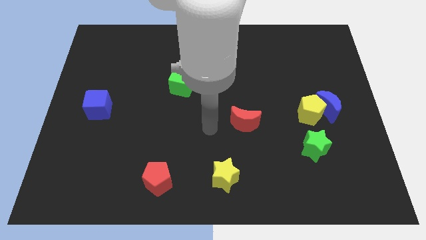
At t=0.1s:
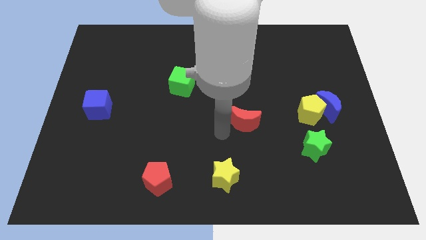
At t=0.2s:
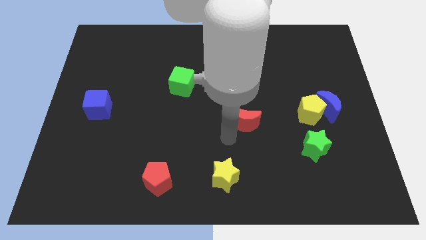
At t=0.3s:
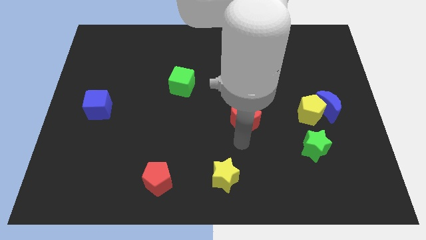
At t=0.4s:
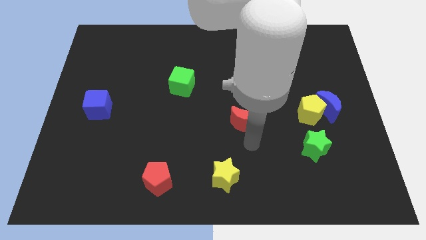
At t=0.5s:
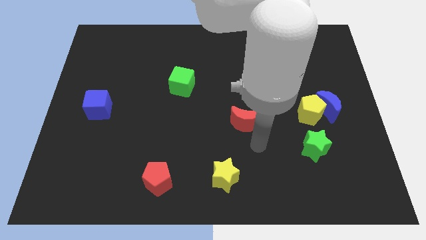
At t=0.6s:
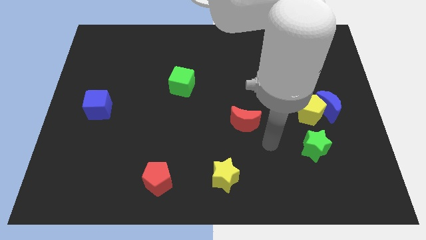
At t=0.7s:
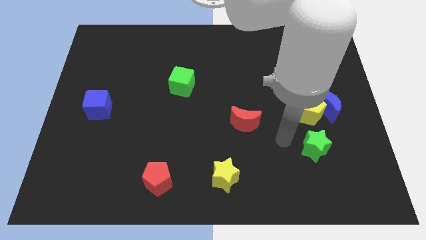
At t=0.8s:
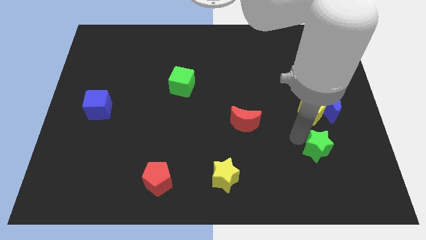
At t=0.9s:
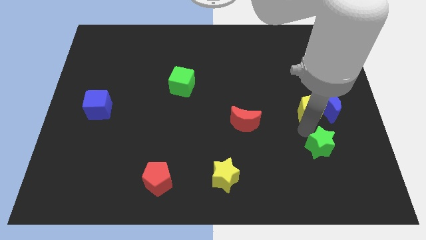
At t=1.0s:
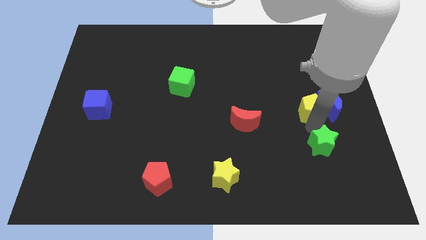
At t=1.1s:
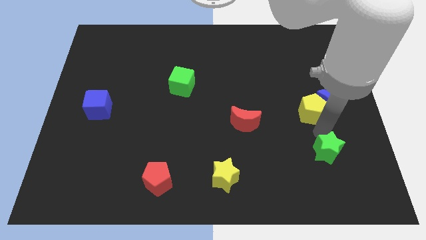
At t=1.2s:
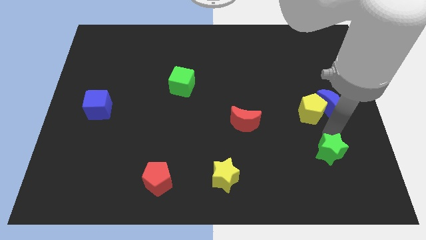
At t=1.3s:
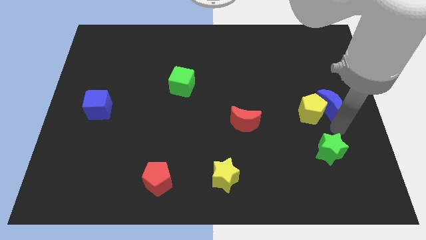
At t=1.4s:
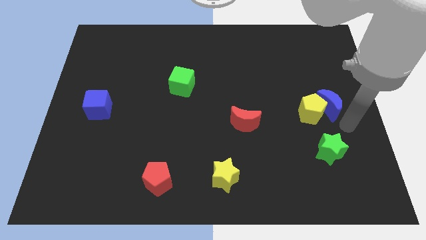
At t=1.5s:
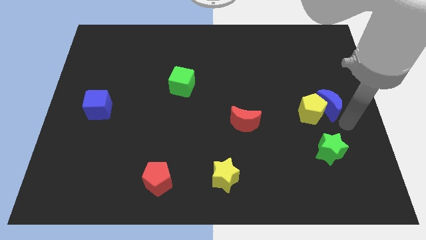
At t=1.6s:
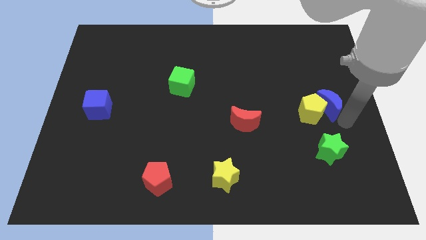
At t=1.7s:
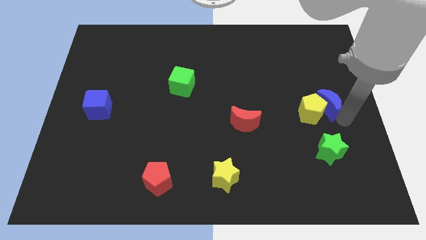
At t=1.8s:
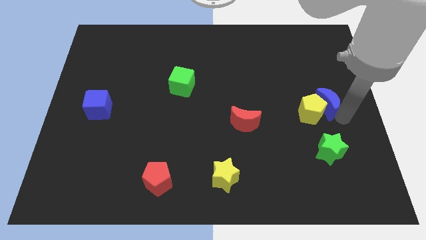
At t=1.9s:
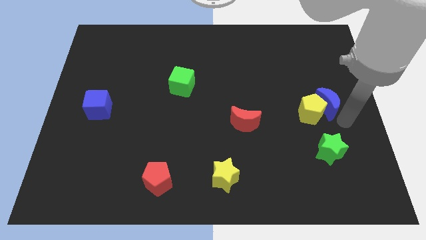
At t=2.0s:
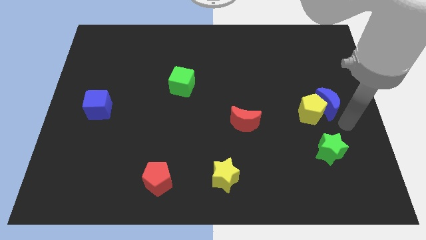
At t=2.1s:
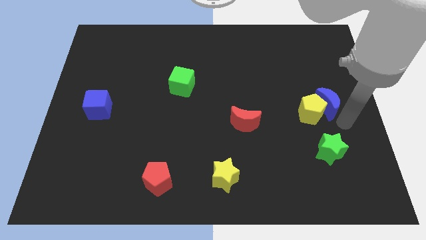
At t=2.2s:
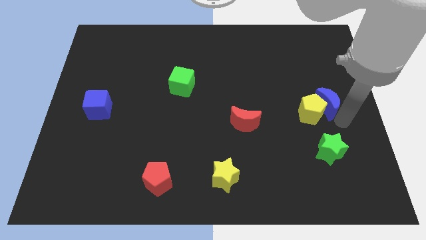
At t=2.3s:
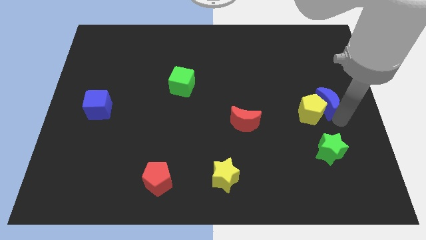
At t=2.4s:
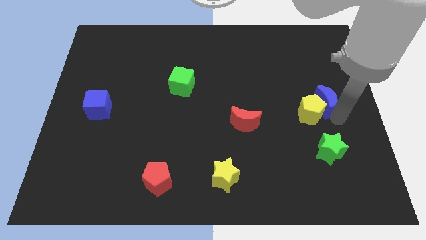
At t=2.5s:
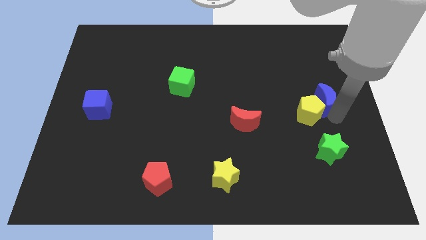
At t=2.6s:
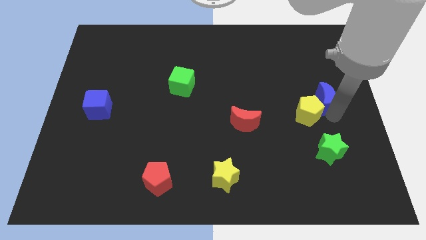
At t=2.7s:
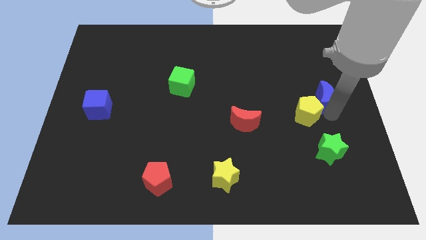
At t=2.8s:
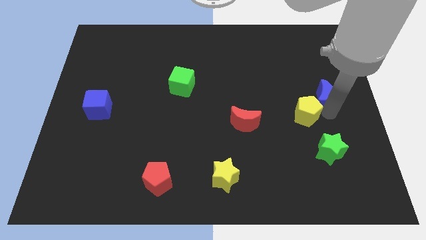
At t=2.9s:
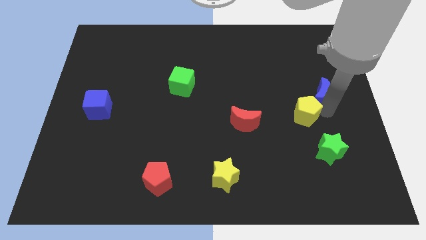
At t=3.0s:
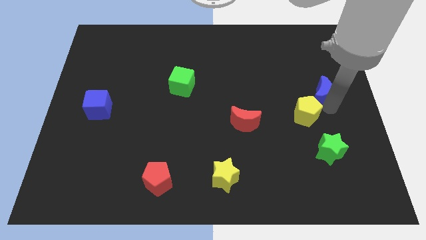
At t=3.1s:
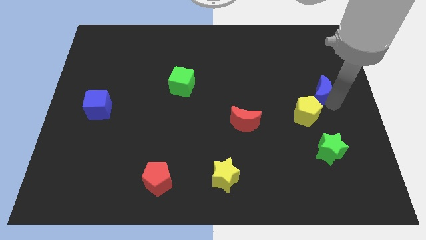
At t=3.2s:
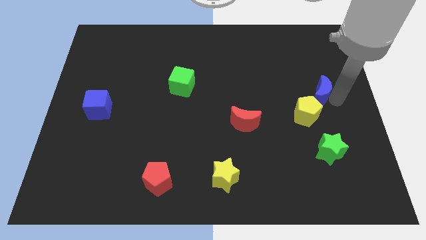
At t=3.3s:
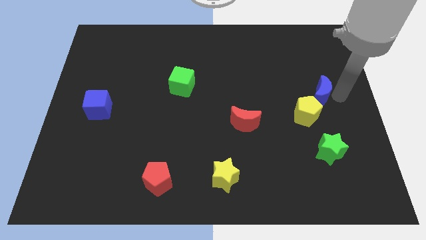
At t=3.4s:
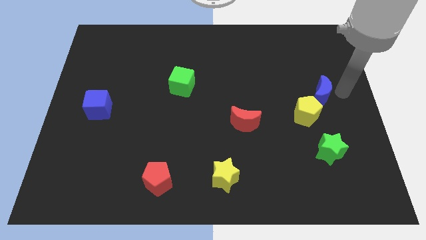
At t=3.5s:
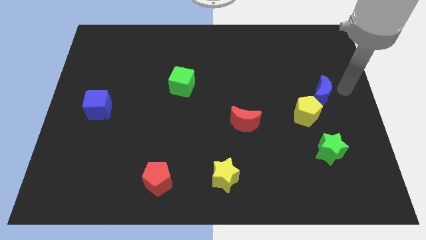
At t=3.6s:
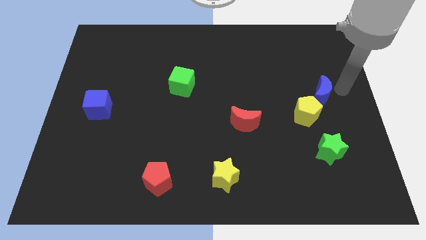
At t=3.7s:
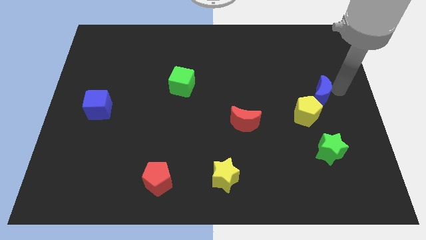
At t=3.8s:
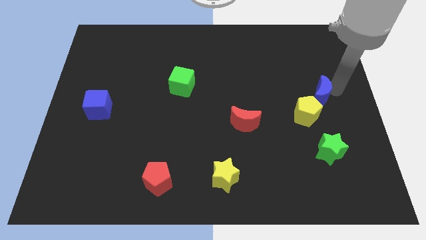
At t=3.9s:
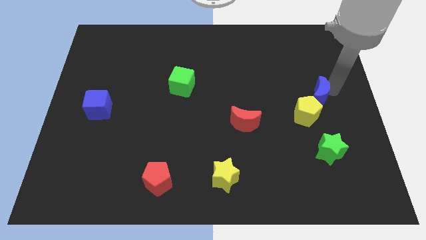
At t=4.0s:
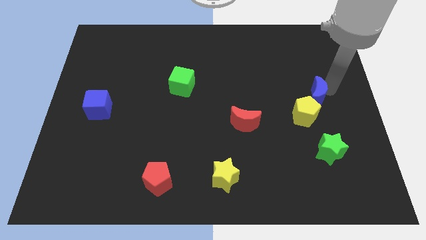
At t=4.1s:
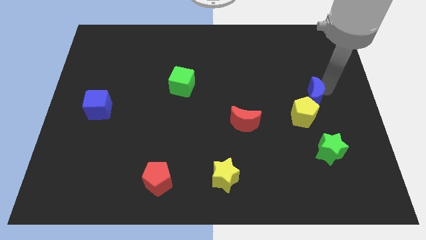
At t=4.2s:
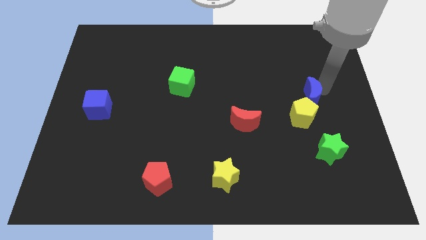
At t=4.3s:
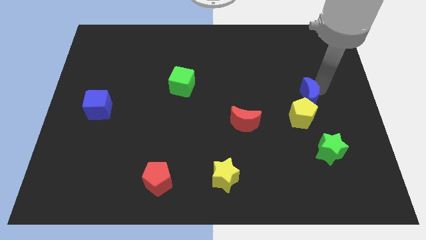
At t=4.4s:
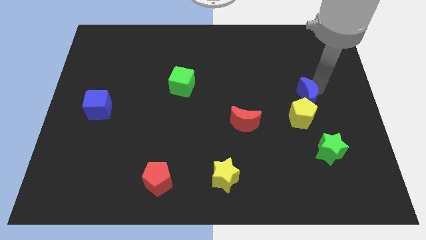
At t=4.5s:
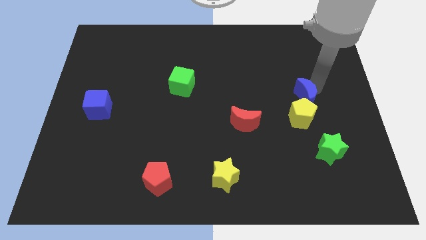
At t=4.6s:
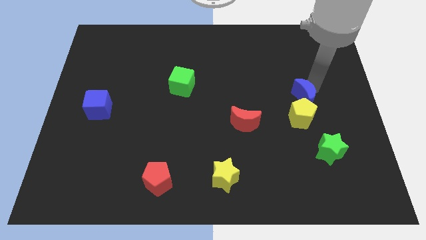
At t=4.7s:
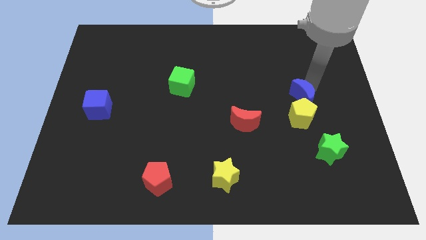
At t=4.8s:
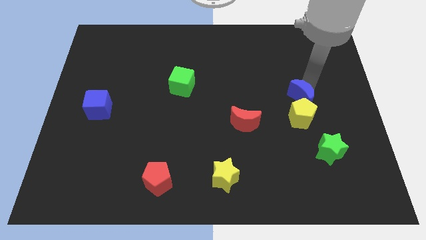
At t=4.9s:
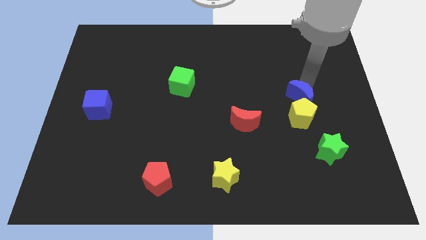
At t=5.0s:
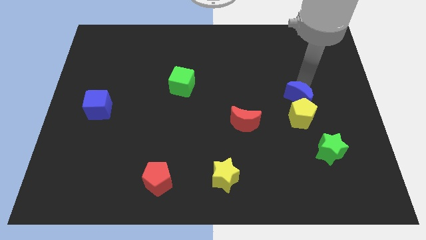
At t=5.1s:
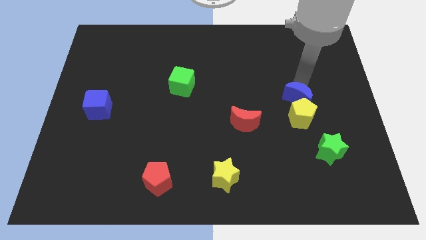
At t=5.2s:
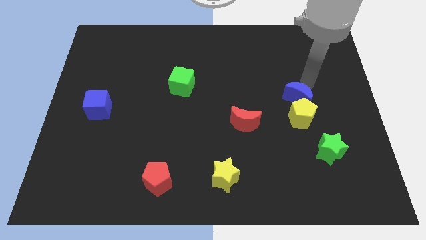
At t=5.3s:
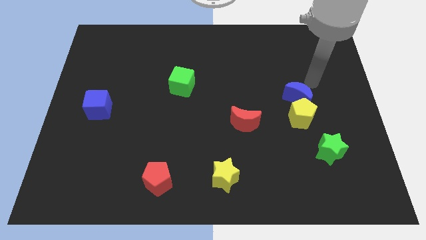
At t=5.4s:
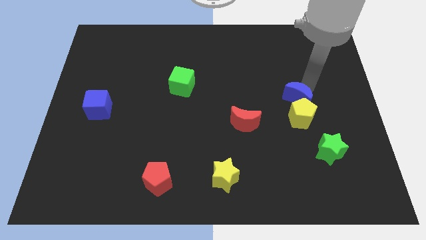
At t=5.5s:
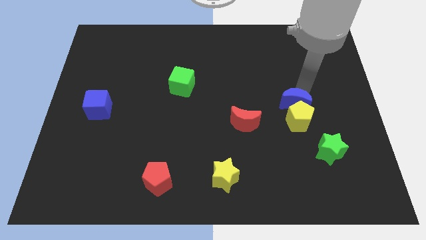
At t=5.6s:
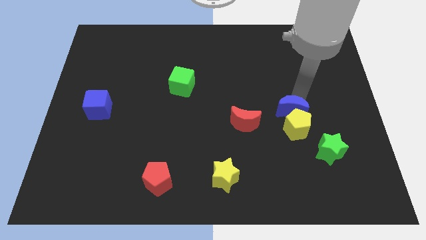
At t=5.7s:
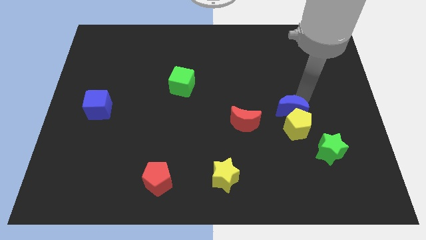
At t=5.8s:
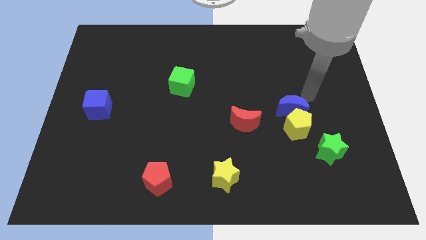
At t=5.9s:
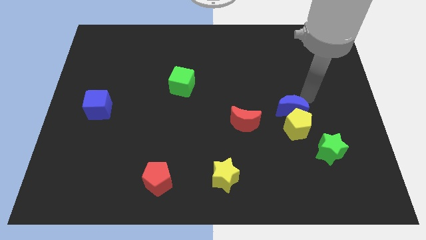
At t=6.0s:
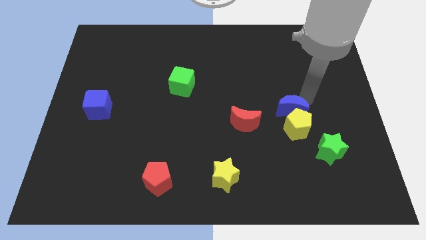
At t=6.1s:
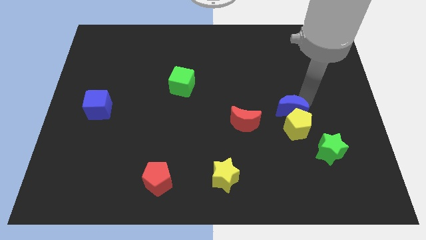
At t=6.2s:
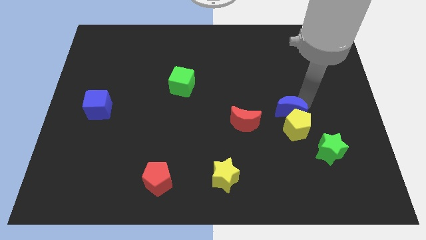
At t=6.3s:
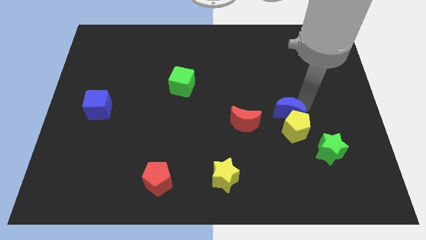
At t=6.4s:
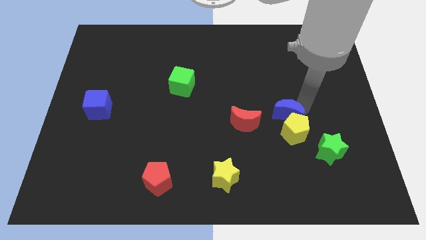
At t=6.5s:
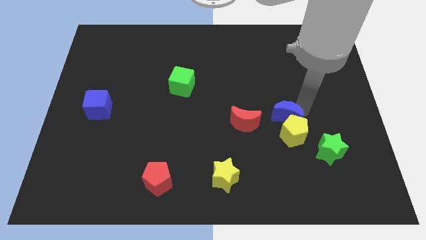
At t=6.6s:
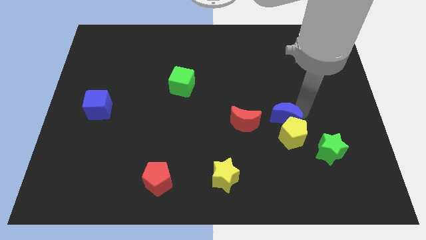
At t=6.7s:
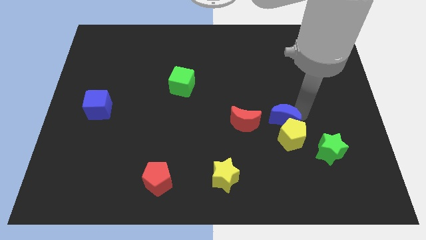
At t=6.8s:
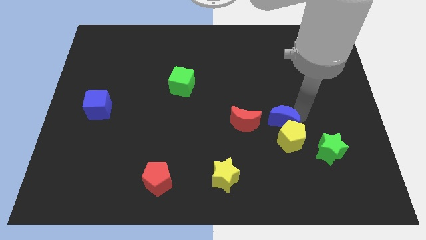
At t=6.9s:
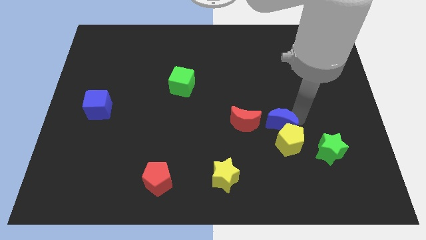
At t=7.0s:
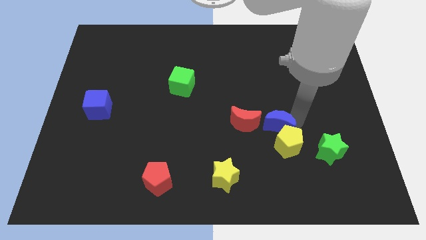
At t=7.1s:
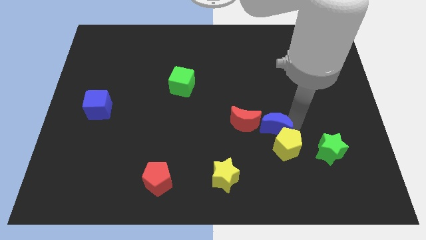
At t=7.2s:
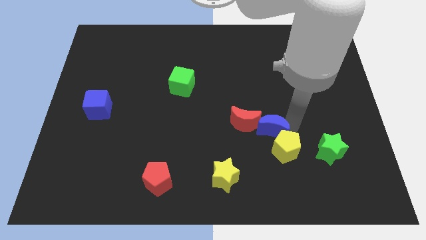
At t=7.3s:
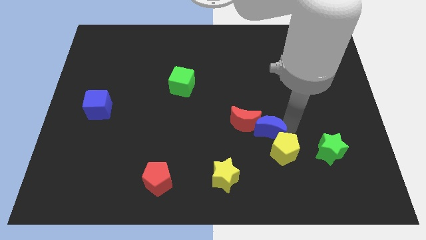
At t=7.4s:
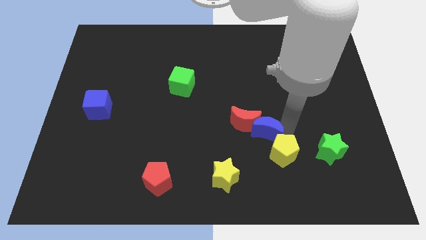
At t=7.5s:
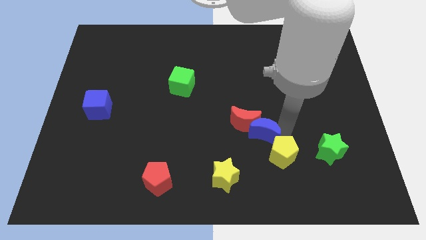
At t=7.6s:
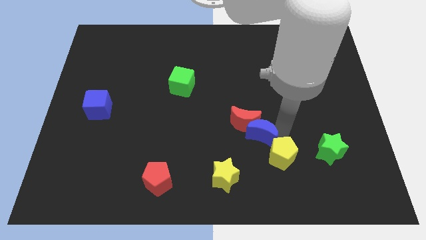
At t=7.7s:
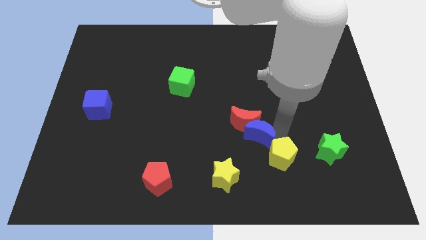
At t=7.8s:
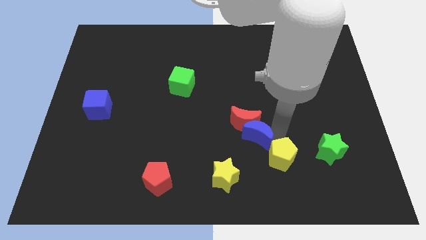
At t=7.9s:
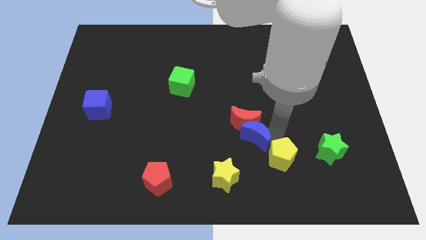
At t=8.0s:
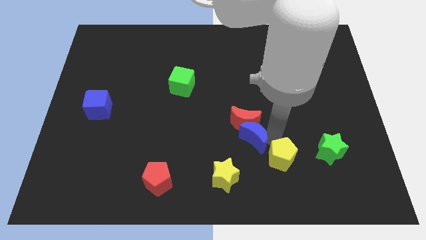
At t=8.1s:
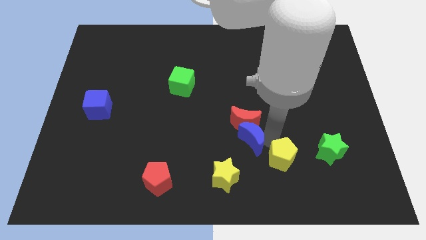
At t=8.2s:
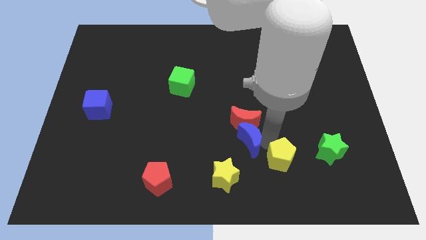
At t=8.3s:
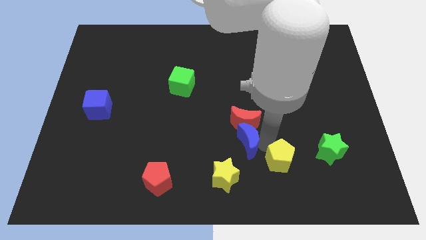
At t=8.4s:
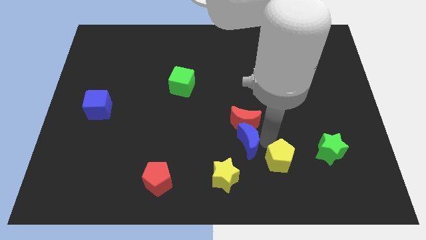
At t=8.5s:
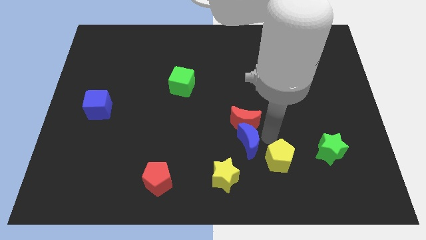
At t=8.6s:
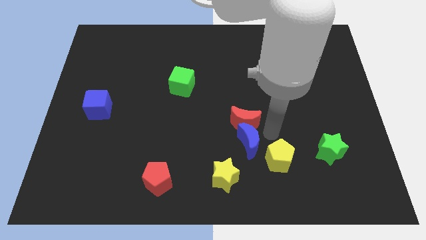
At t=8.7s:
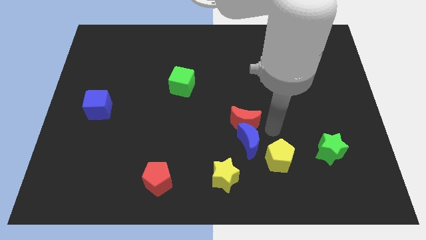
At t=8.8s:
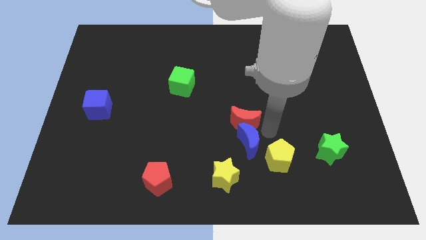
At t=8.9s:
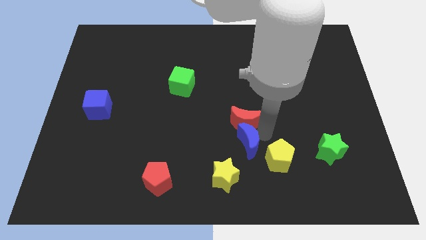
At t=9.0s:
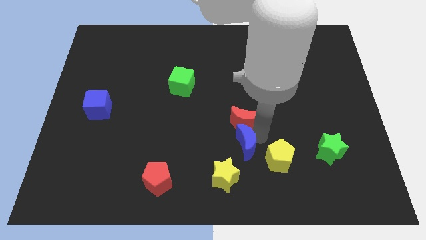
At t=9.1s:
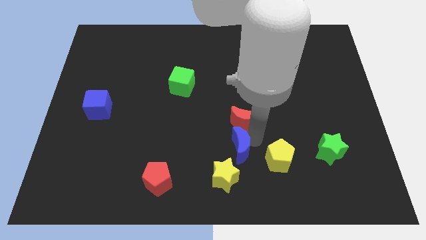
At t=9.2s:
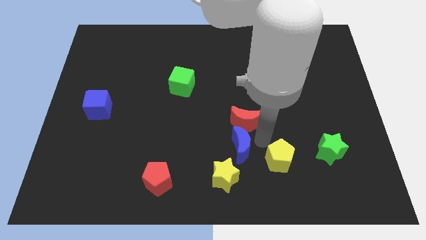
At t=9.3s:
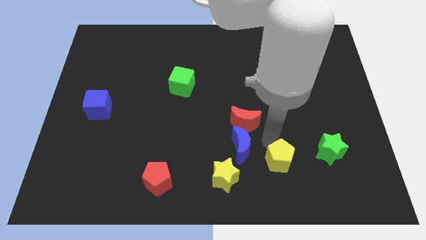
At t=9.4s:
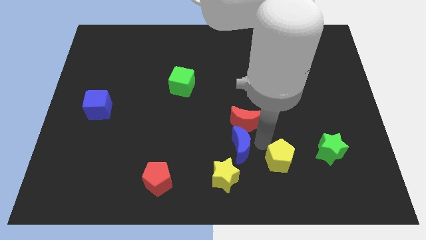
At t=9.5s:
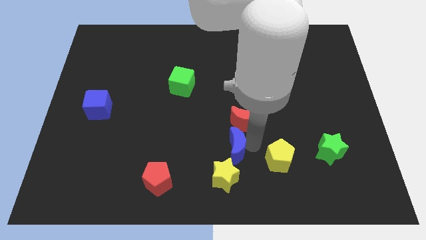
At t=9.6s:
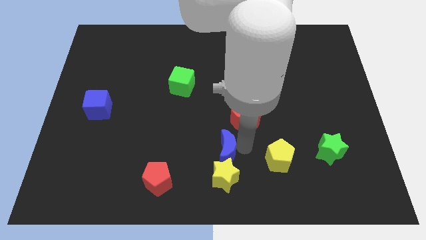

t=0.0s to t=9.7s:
put the blue moon diagonally up and to the left of the yellow star
